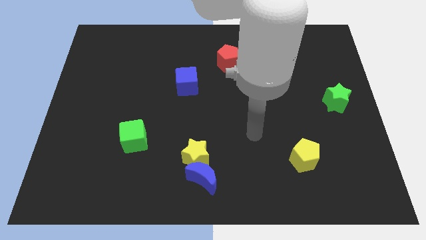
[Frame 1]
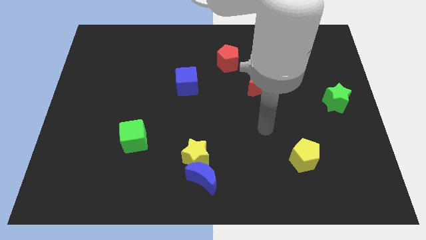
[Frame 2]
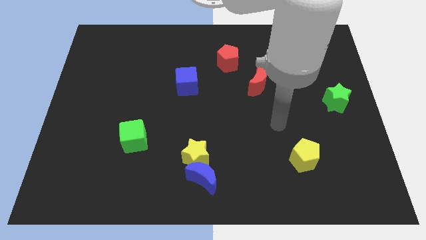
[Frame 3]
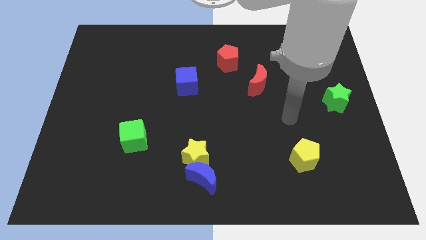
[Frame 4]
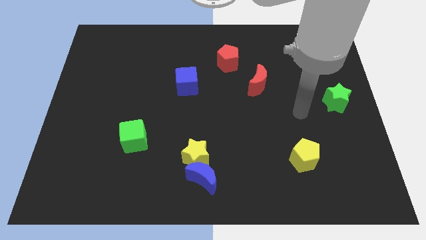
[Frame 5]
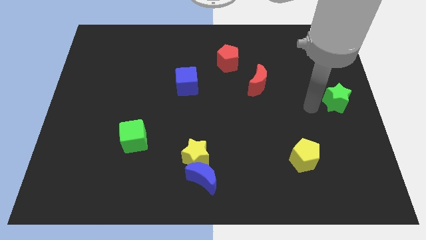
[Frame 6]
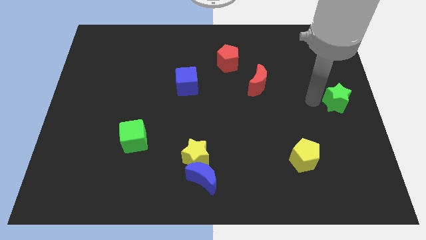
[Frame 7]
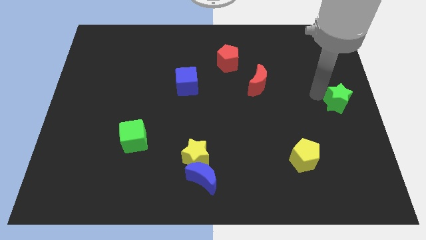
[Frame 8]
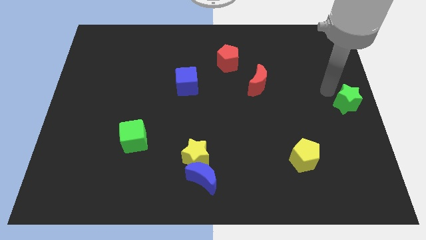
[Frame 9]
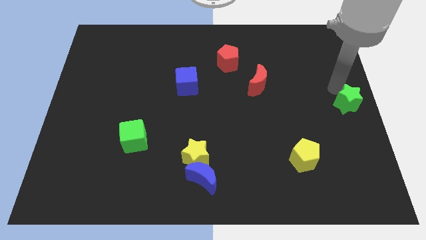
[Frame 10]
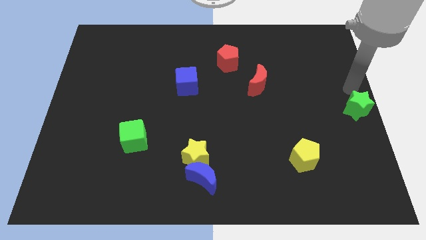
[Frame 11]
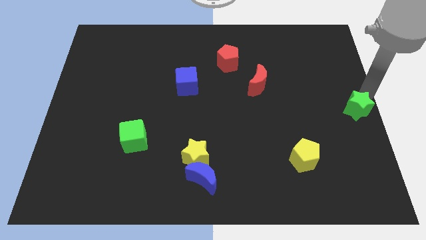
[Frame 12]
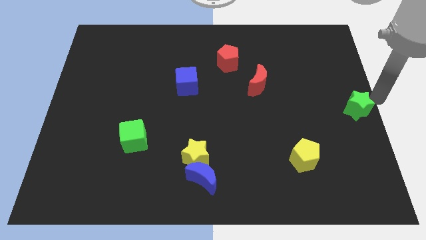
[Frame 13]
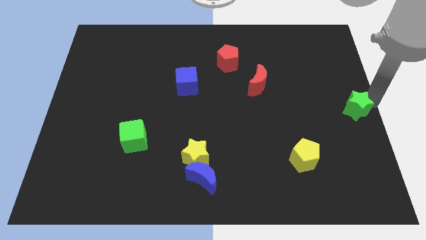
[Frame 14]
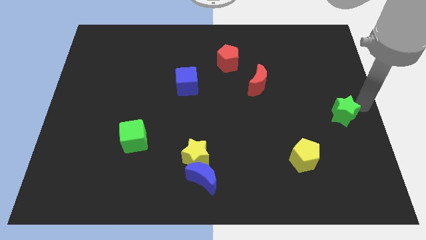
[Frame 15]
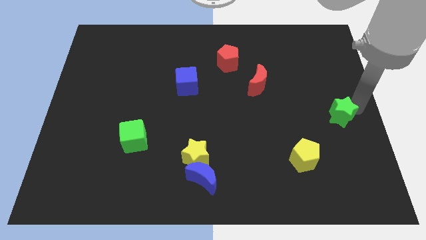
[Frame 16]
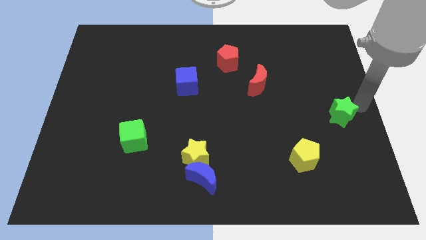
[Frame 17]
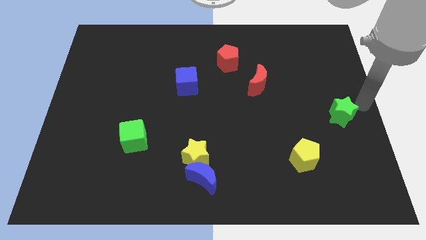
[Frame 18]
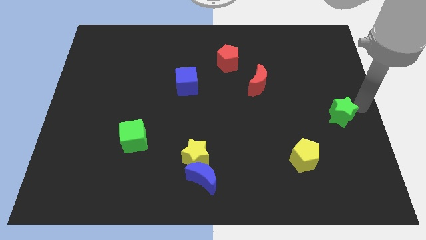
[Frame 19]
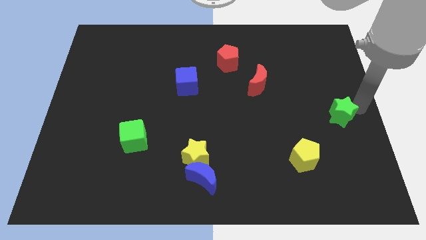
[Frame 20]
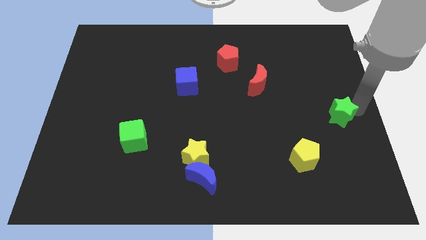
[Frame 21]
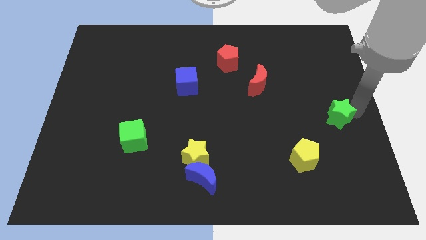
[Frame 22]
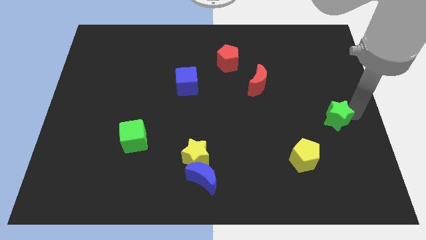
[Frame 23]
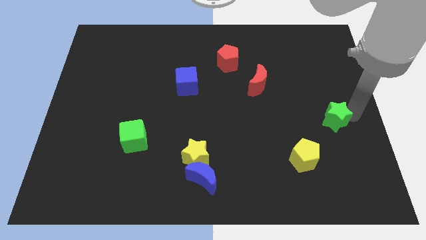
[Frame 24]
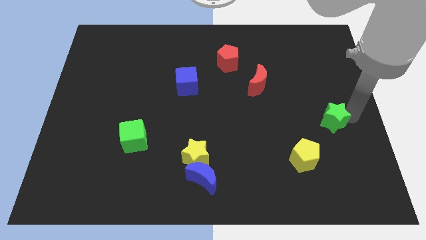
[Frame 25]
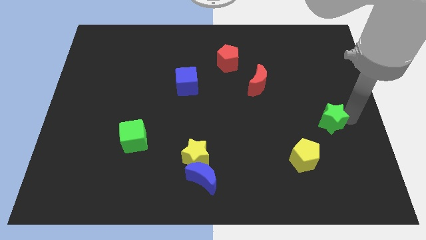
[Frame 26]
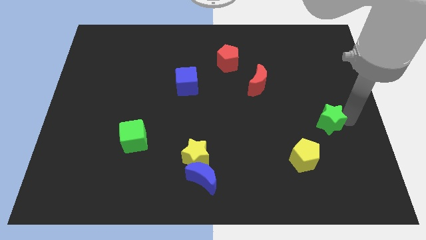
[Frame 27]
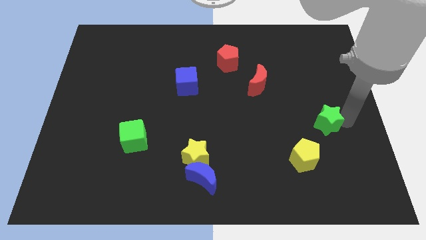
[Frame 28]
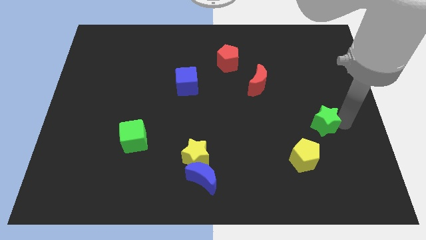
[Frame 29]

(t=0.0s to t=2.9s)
move the green star a little bit down and to the left diagonally

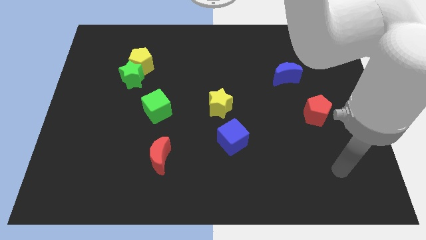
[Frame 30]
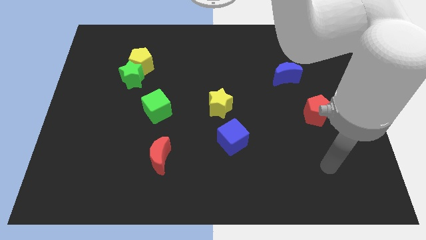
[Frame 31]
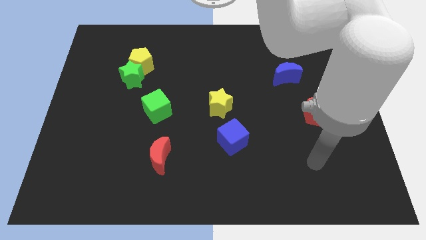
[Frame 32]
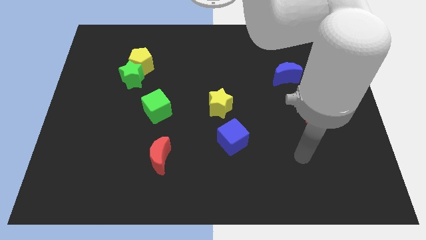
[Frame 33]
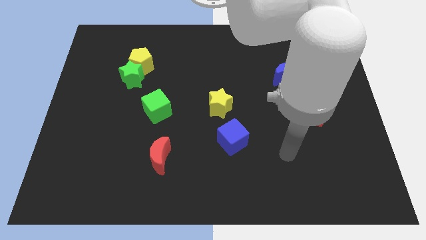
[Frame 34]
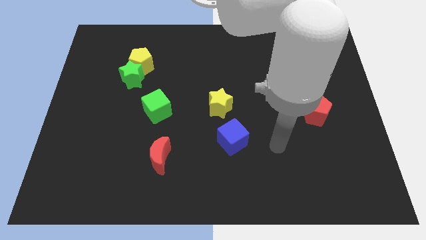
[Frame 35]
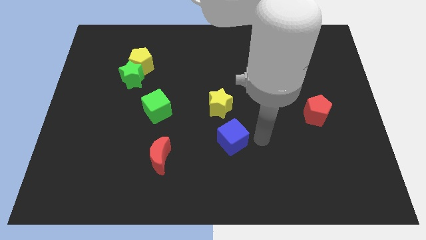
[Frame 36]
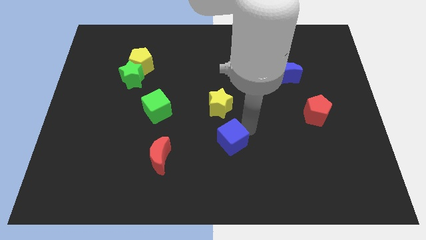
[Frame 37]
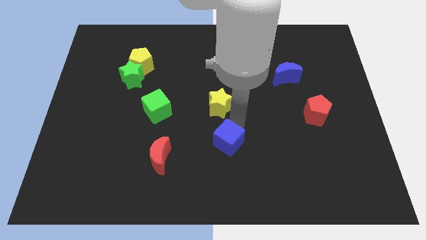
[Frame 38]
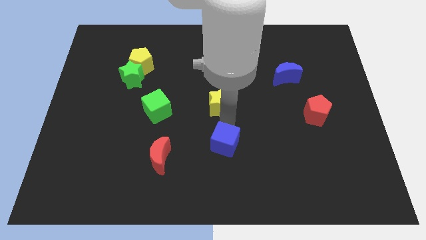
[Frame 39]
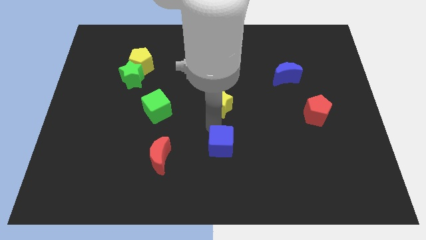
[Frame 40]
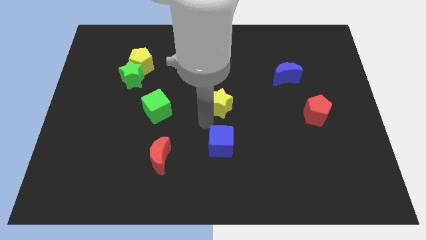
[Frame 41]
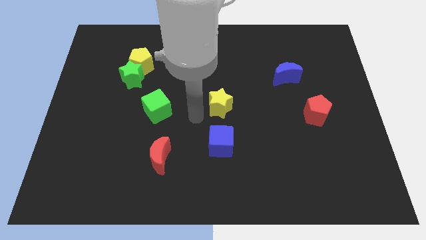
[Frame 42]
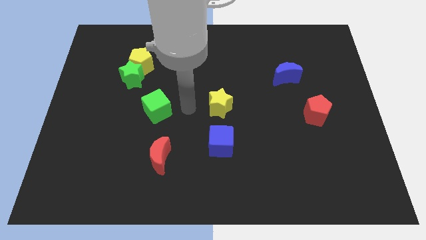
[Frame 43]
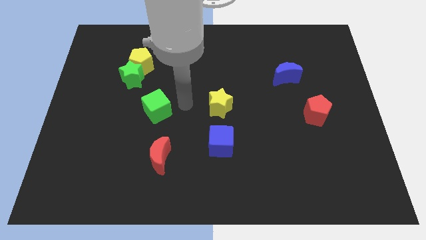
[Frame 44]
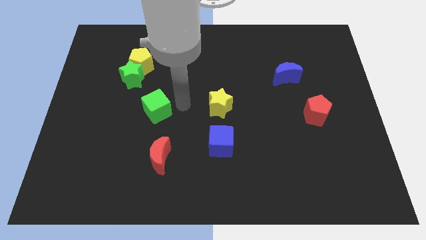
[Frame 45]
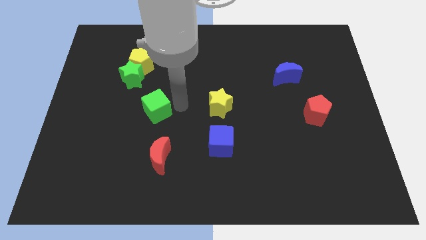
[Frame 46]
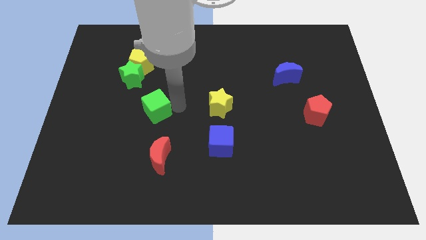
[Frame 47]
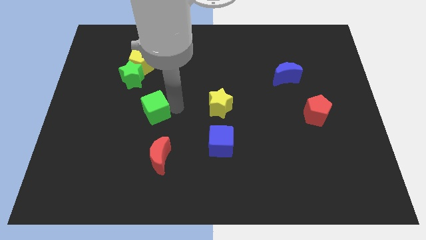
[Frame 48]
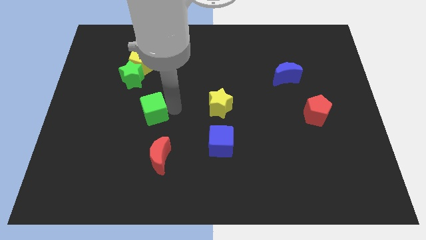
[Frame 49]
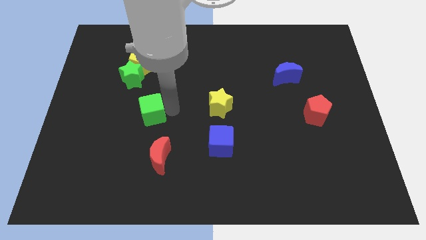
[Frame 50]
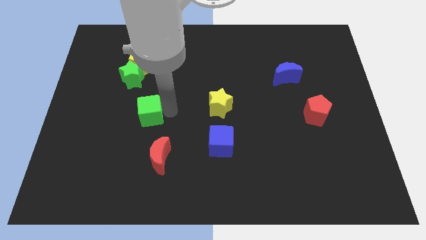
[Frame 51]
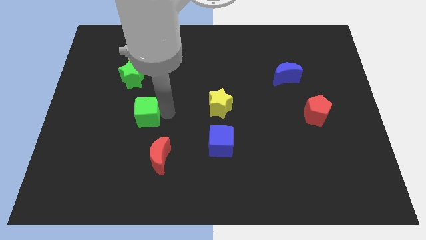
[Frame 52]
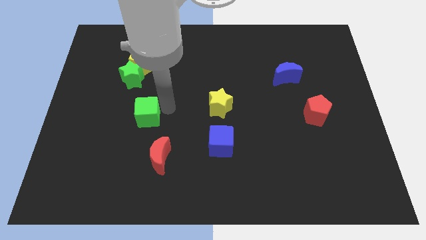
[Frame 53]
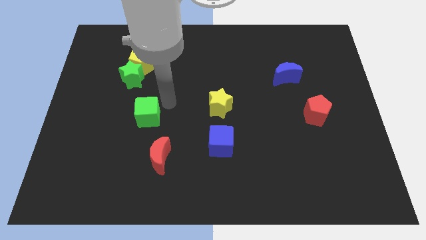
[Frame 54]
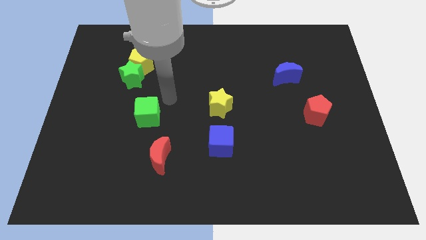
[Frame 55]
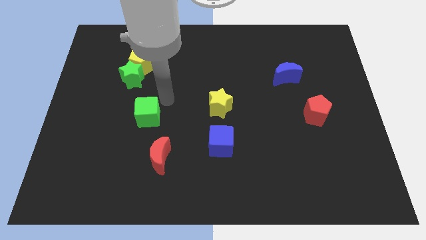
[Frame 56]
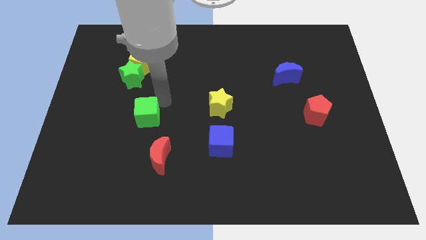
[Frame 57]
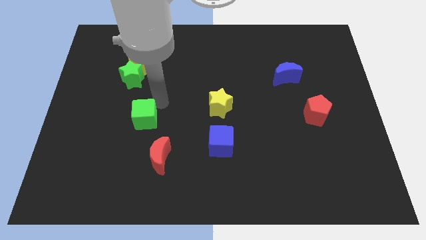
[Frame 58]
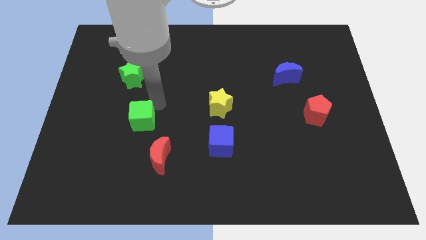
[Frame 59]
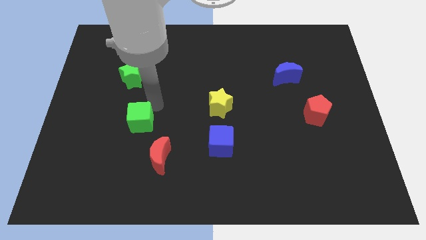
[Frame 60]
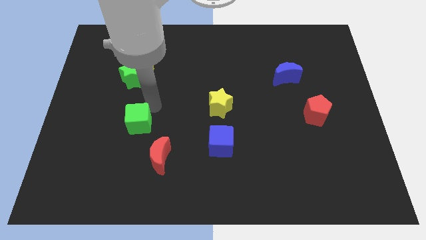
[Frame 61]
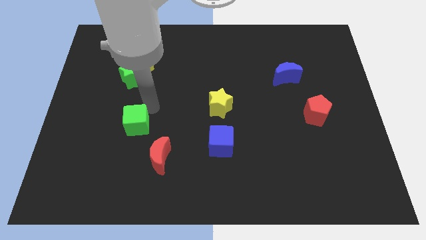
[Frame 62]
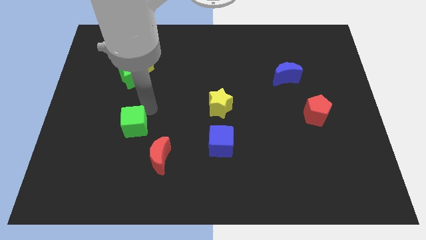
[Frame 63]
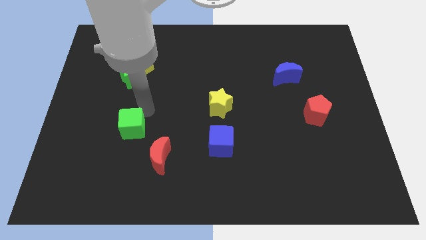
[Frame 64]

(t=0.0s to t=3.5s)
slide the green cube a bit diagonally downwards and left

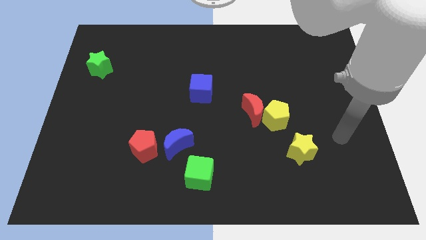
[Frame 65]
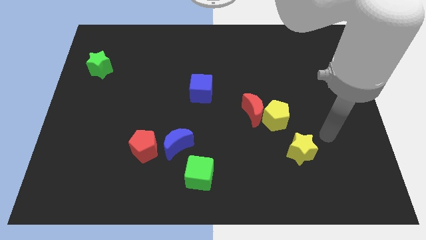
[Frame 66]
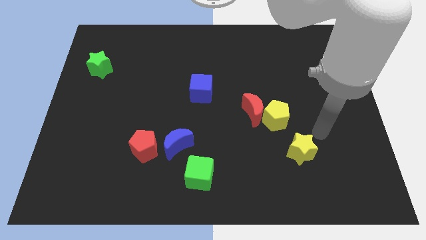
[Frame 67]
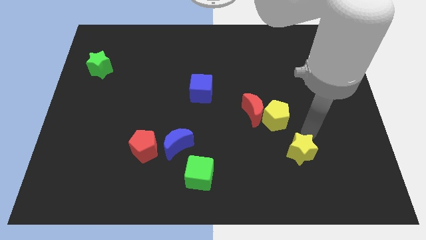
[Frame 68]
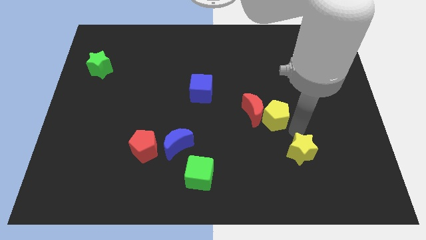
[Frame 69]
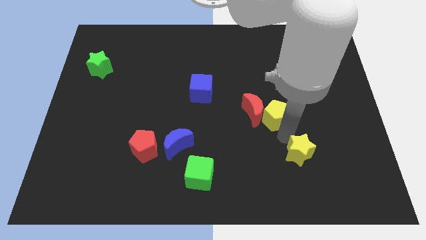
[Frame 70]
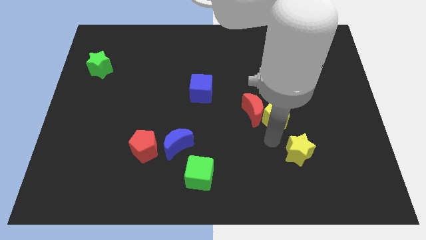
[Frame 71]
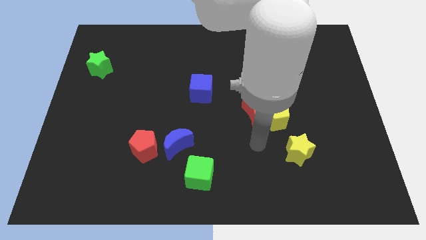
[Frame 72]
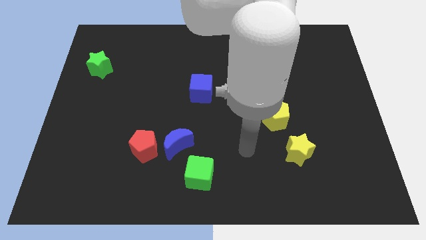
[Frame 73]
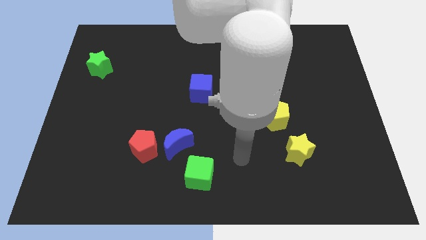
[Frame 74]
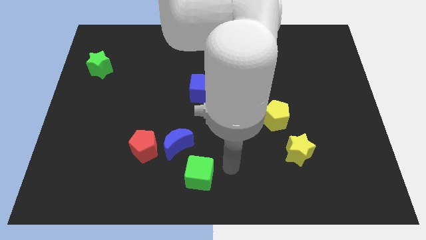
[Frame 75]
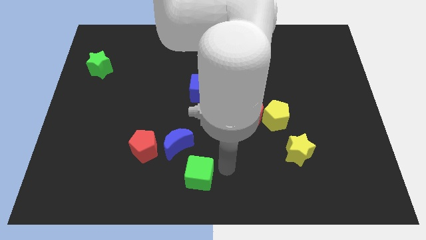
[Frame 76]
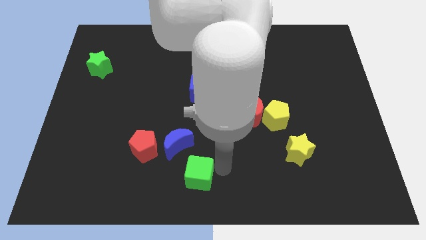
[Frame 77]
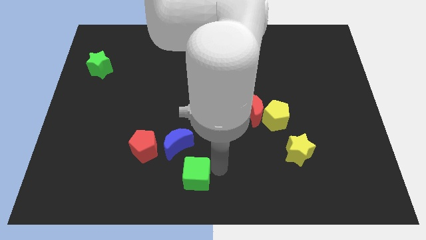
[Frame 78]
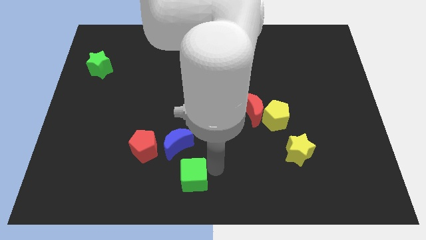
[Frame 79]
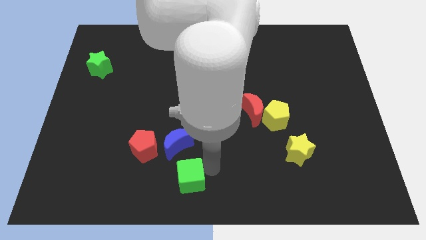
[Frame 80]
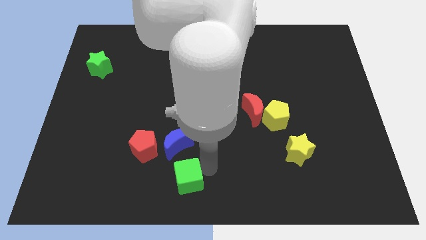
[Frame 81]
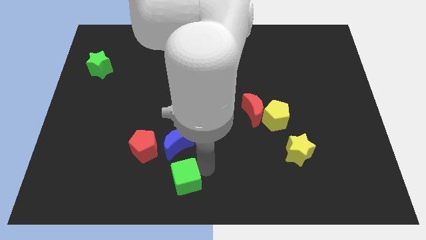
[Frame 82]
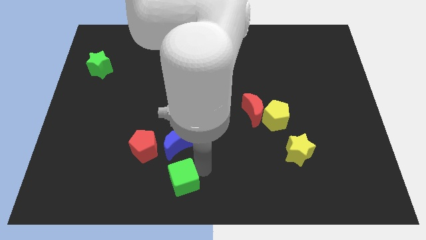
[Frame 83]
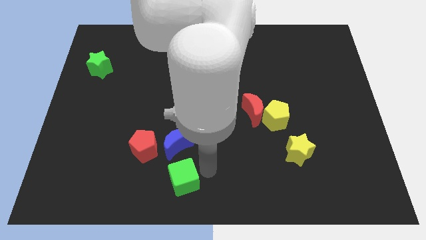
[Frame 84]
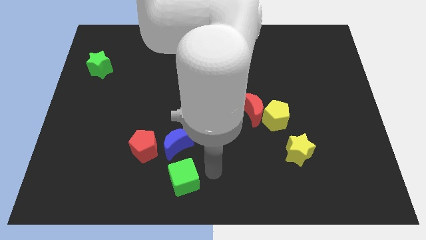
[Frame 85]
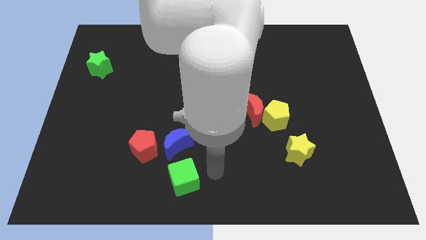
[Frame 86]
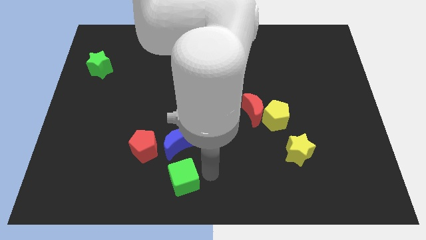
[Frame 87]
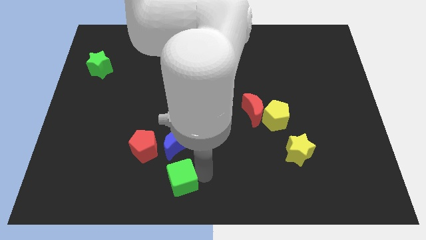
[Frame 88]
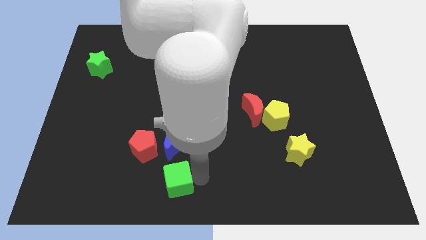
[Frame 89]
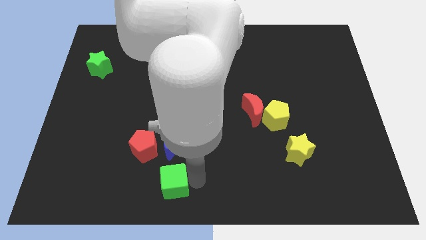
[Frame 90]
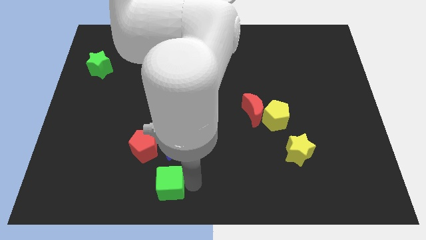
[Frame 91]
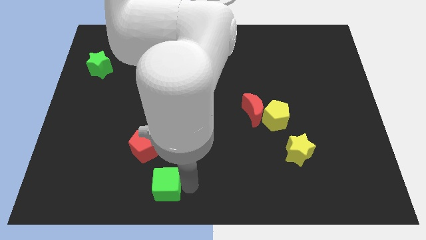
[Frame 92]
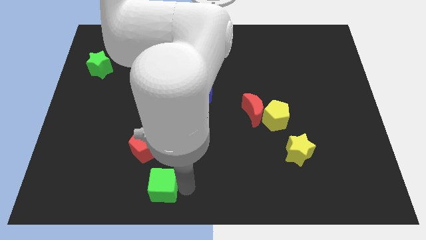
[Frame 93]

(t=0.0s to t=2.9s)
slightly slide the green cube to the left
